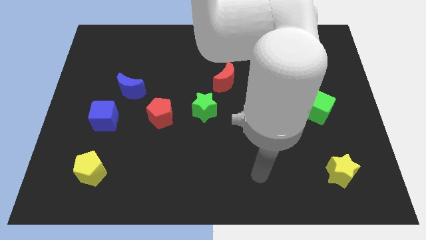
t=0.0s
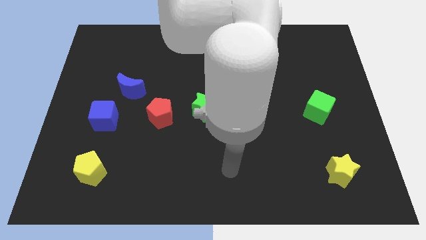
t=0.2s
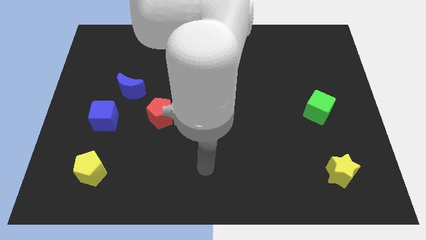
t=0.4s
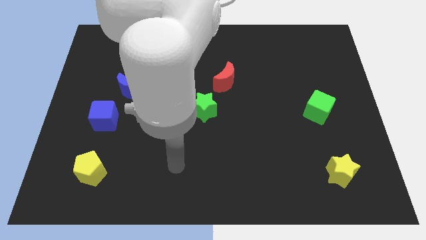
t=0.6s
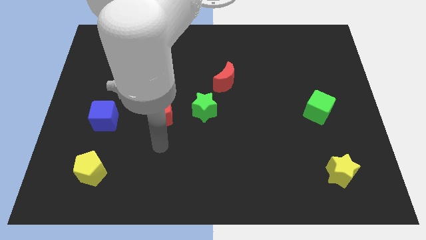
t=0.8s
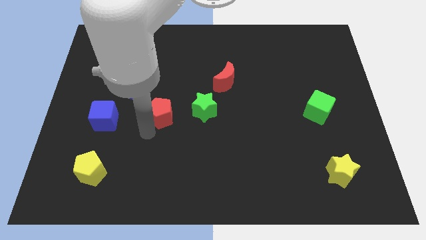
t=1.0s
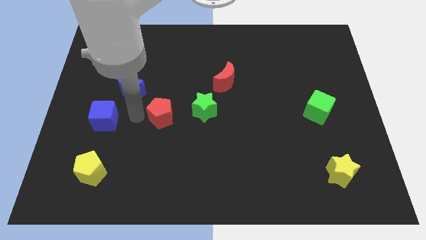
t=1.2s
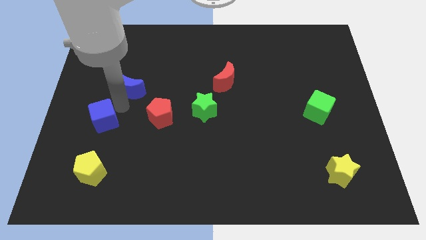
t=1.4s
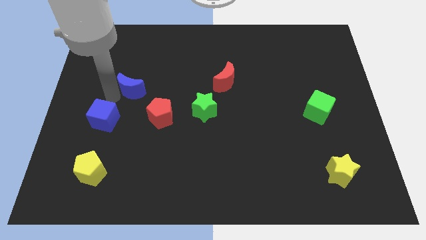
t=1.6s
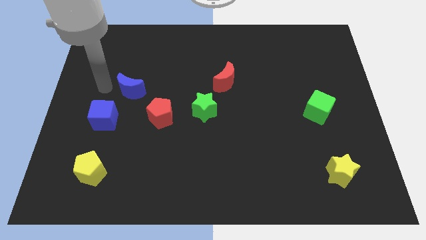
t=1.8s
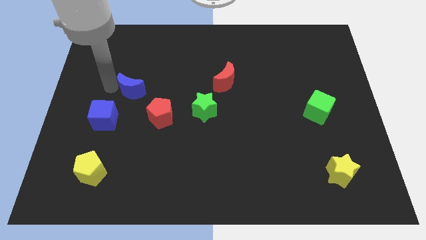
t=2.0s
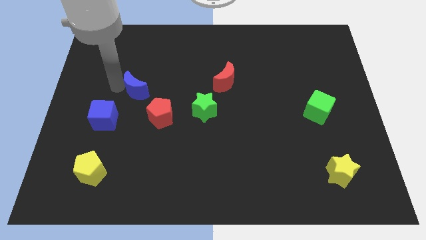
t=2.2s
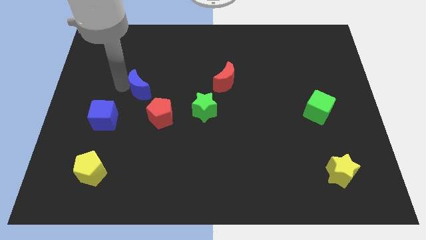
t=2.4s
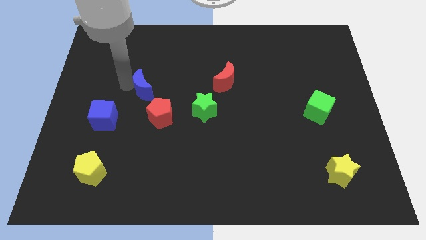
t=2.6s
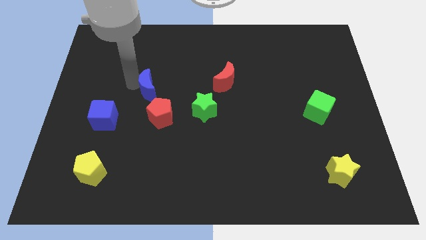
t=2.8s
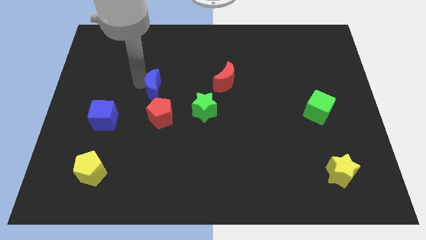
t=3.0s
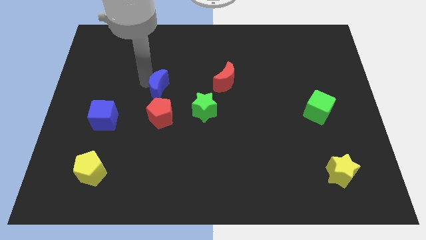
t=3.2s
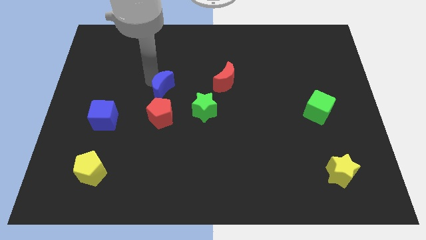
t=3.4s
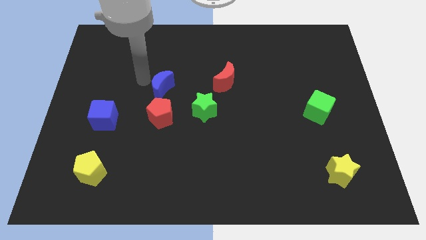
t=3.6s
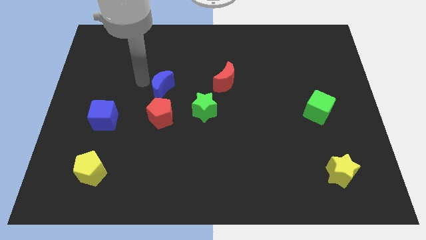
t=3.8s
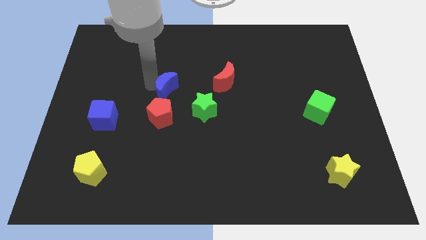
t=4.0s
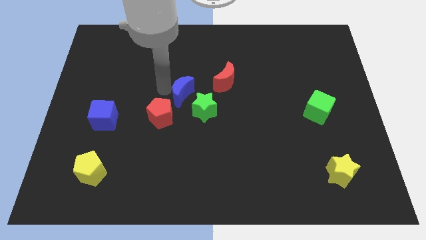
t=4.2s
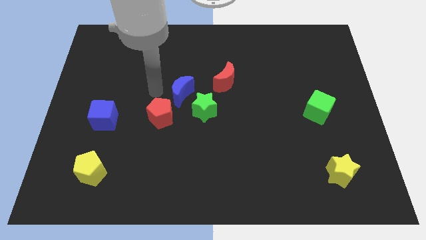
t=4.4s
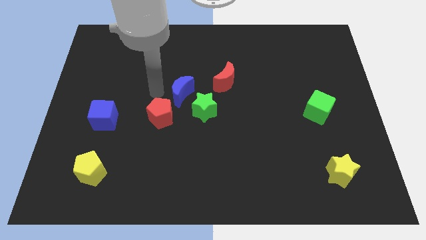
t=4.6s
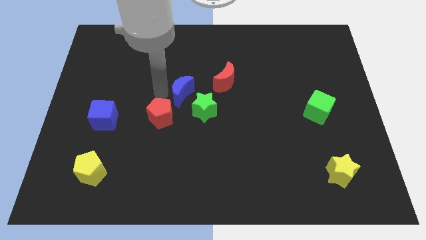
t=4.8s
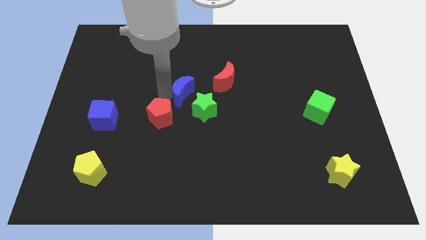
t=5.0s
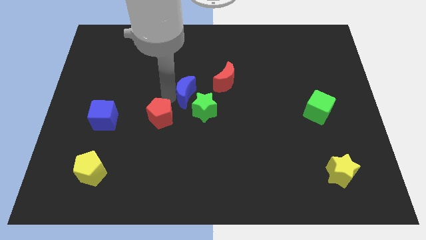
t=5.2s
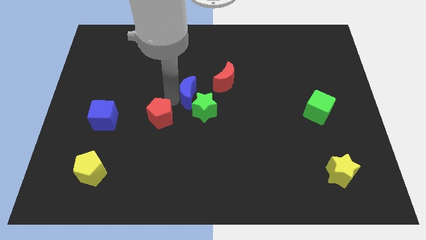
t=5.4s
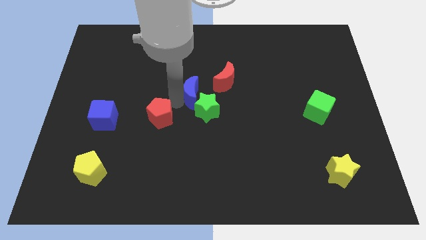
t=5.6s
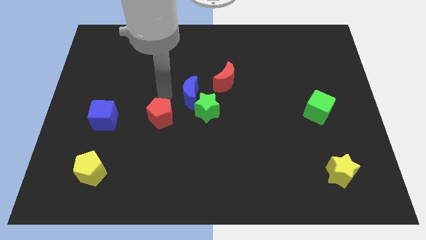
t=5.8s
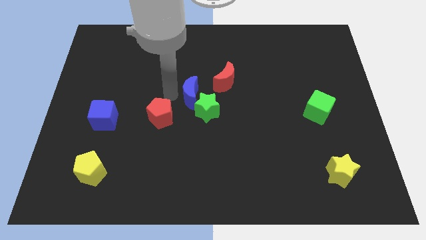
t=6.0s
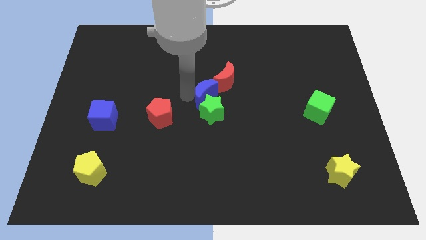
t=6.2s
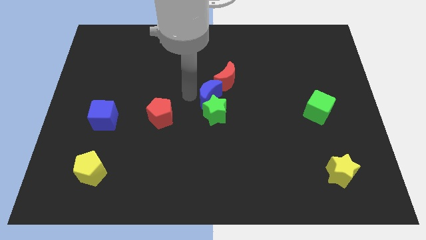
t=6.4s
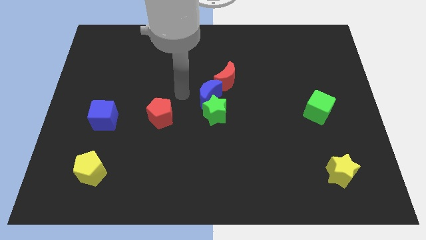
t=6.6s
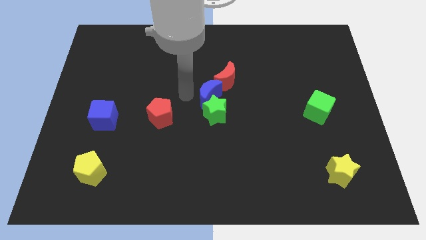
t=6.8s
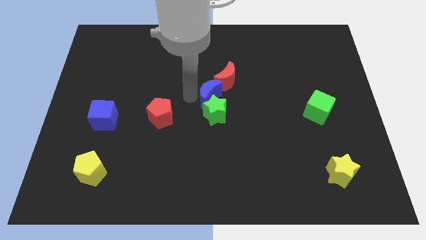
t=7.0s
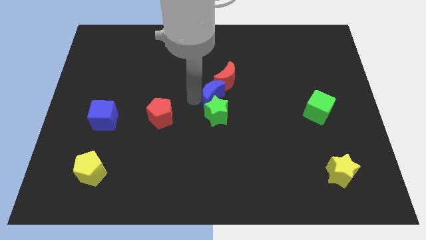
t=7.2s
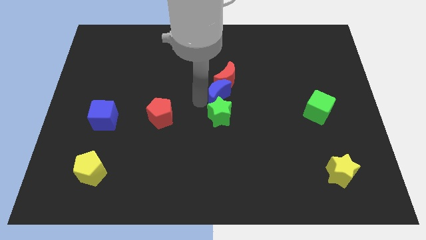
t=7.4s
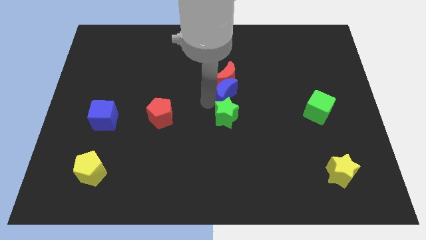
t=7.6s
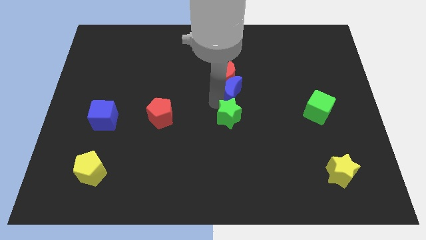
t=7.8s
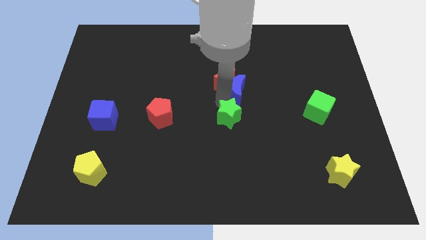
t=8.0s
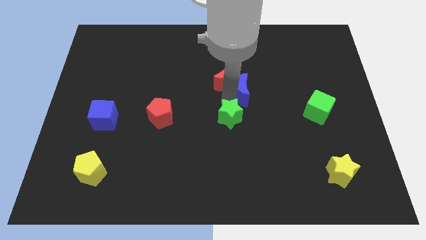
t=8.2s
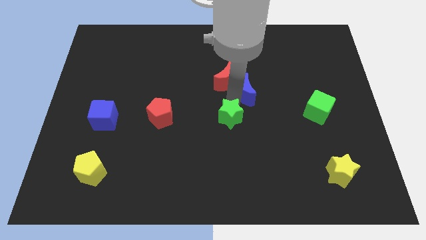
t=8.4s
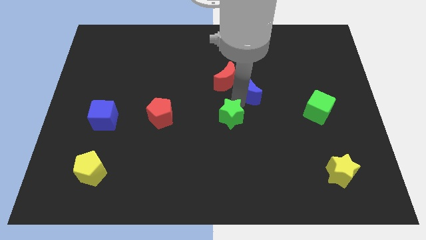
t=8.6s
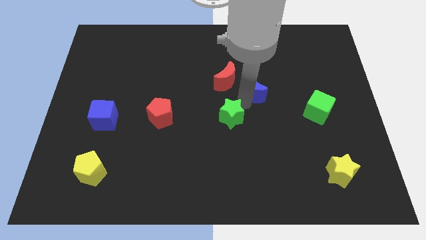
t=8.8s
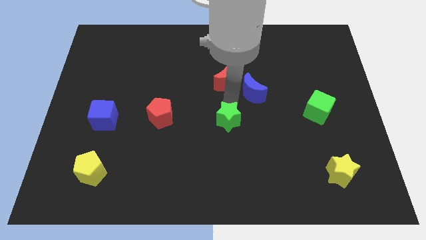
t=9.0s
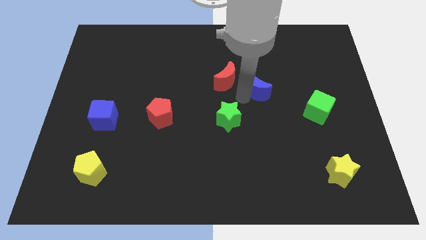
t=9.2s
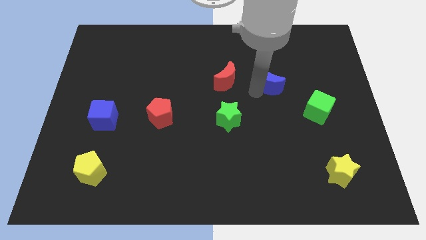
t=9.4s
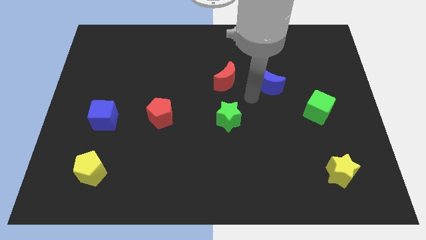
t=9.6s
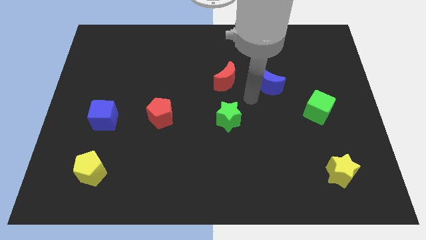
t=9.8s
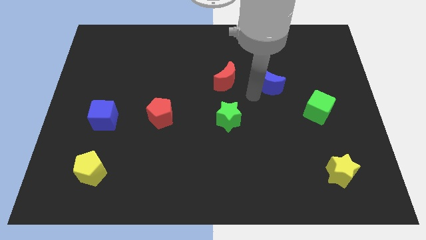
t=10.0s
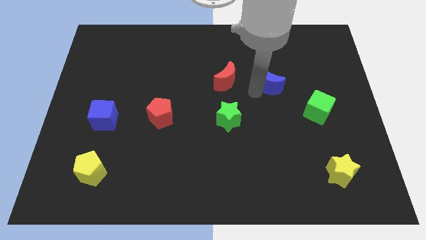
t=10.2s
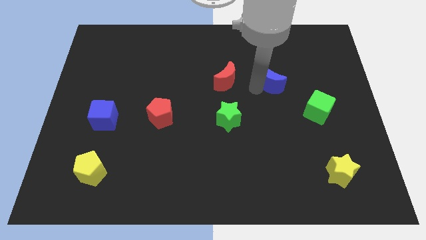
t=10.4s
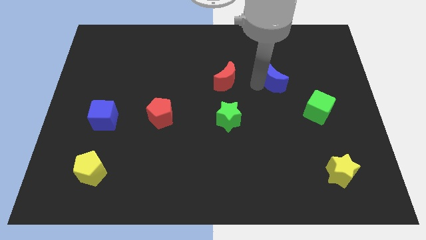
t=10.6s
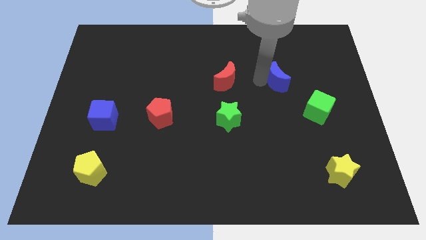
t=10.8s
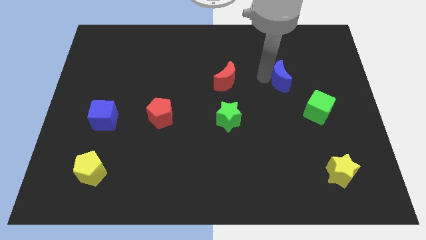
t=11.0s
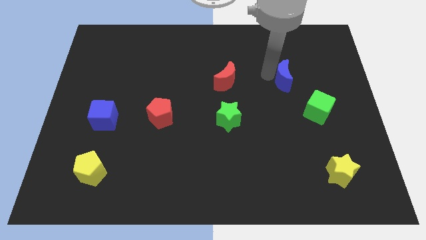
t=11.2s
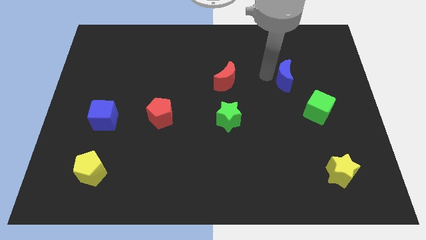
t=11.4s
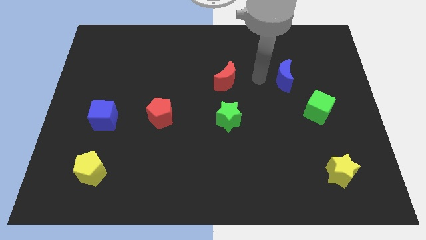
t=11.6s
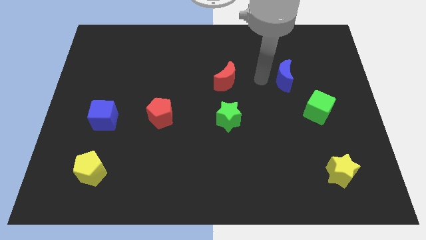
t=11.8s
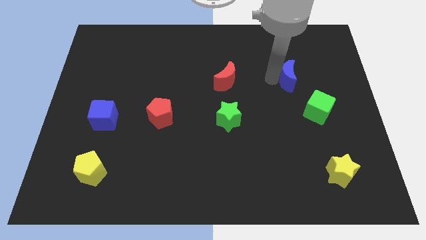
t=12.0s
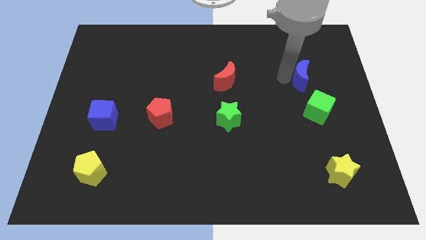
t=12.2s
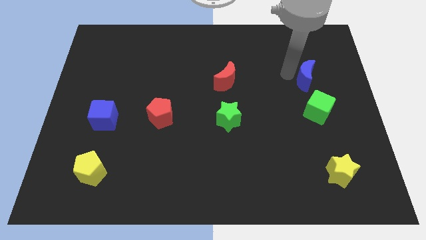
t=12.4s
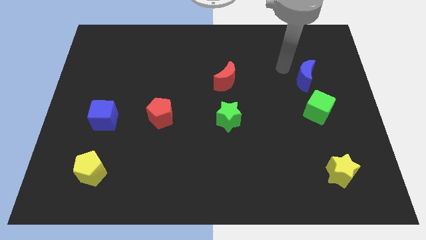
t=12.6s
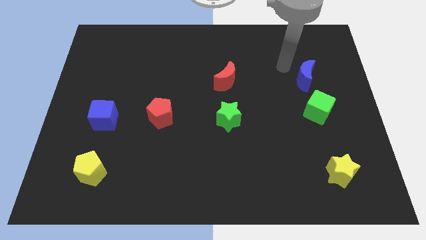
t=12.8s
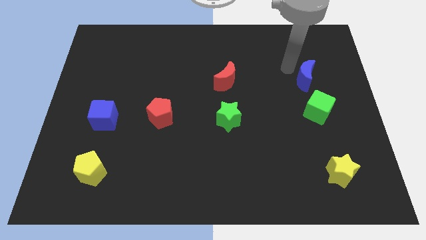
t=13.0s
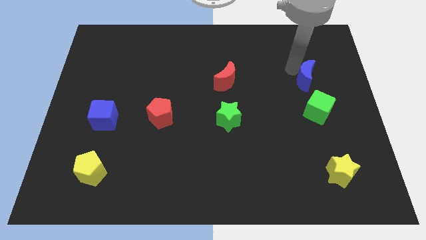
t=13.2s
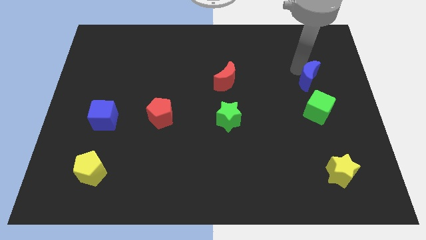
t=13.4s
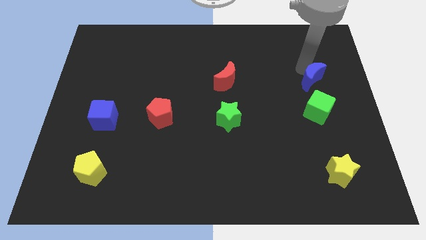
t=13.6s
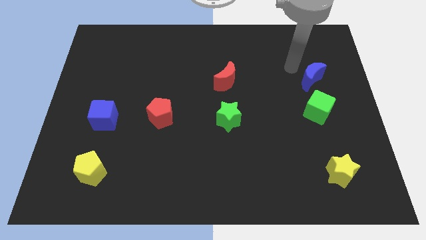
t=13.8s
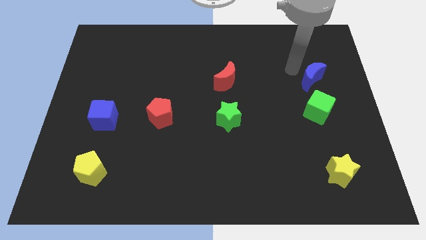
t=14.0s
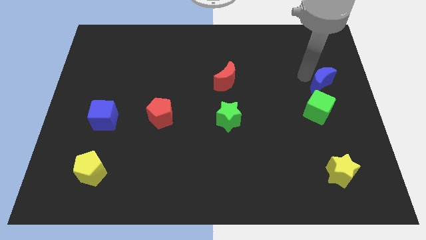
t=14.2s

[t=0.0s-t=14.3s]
push the blue moon to the center right
